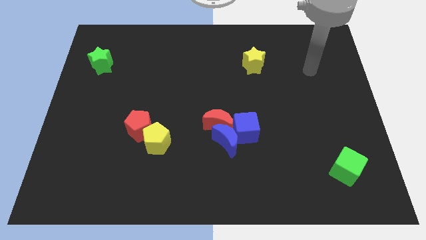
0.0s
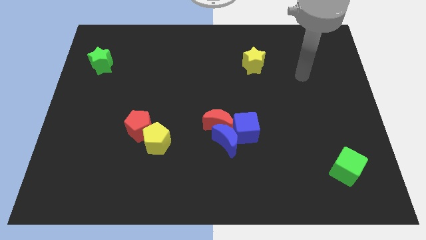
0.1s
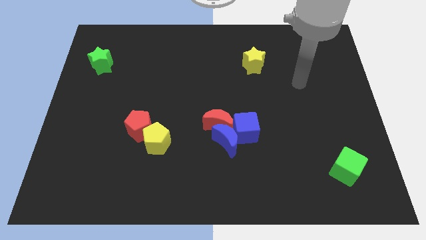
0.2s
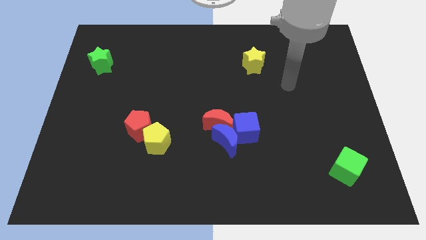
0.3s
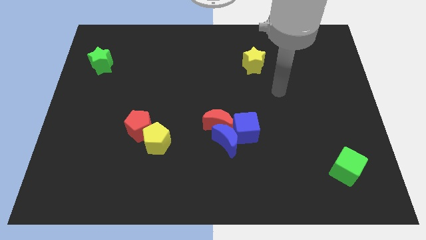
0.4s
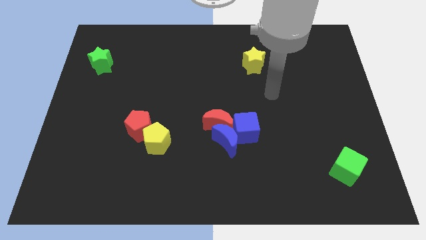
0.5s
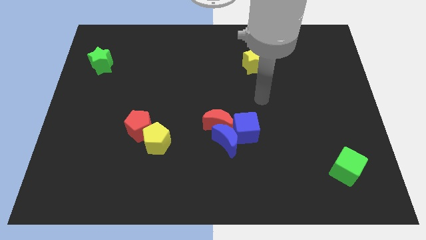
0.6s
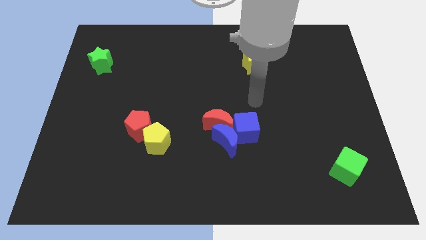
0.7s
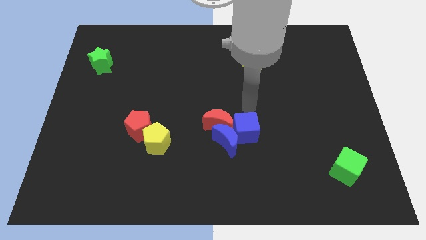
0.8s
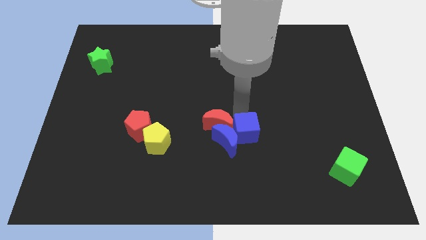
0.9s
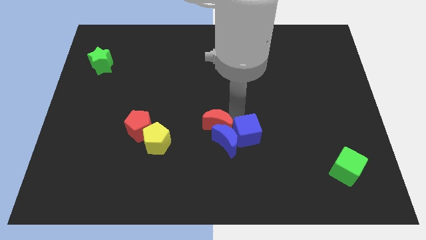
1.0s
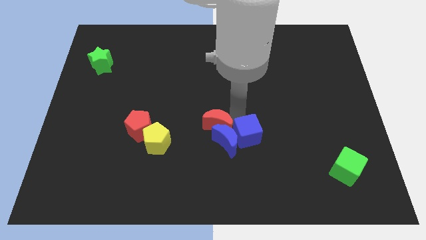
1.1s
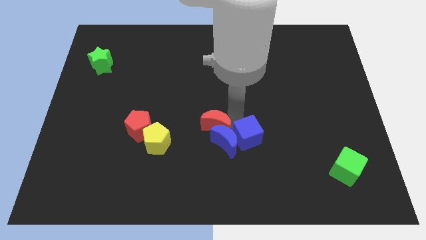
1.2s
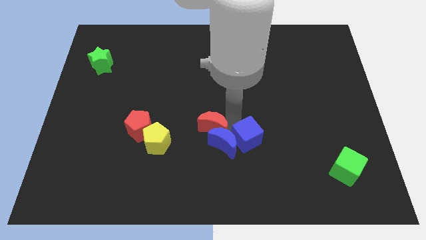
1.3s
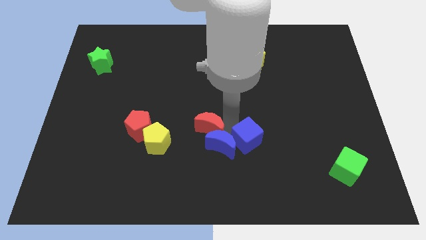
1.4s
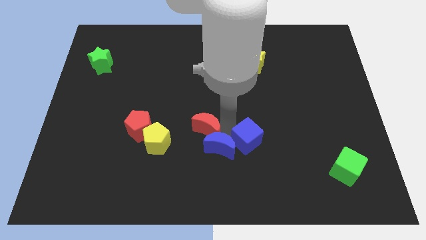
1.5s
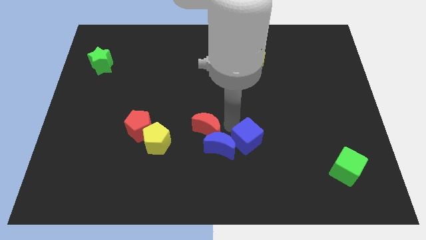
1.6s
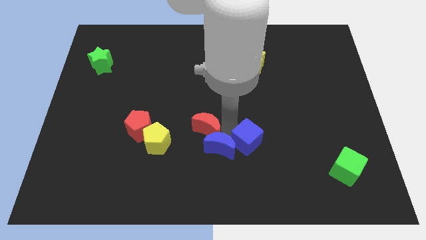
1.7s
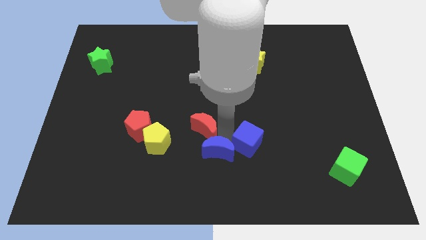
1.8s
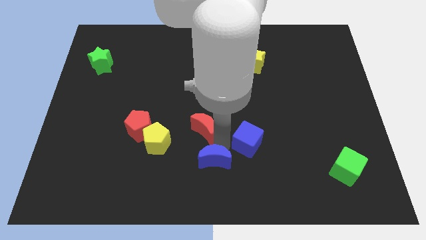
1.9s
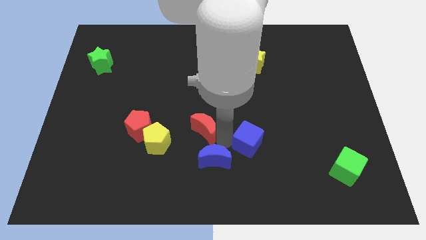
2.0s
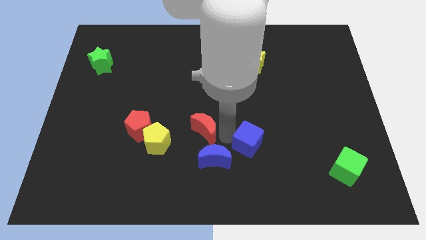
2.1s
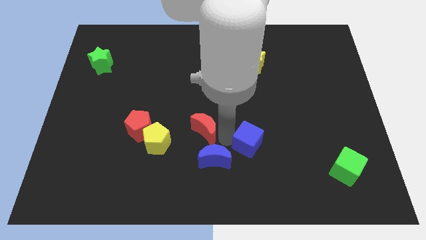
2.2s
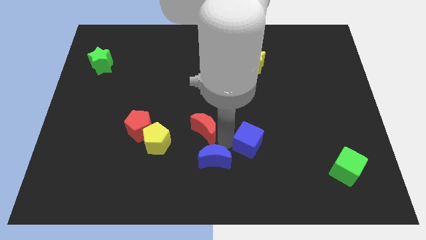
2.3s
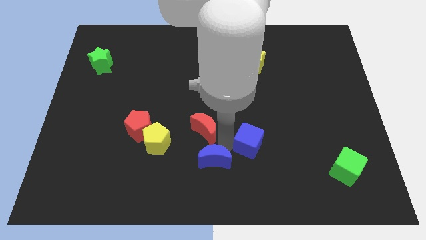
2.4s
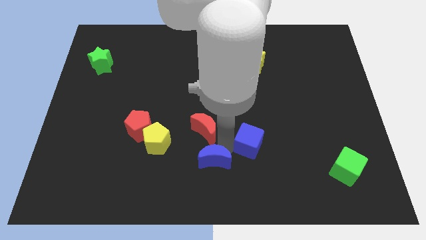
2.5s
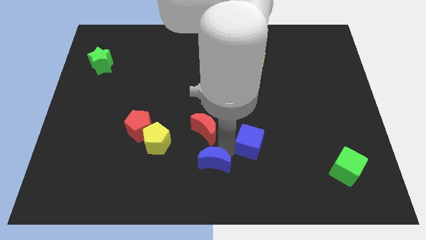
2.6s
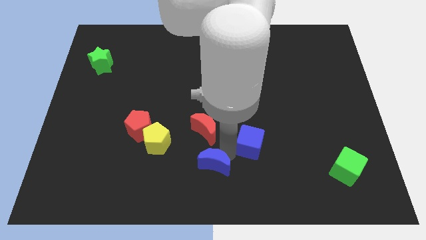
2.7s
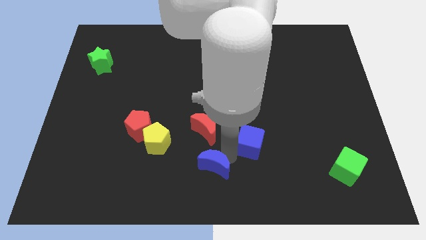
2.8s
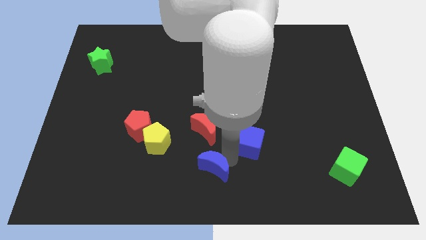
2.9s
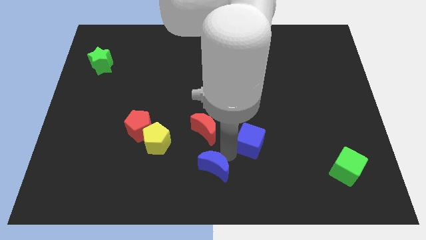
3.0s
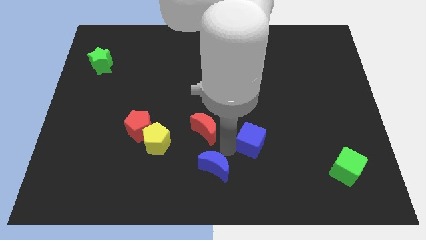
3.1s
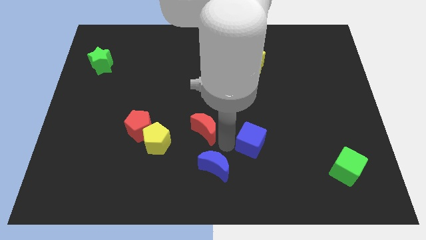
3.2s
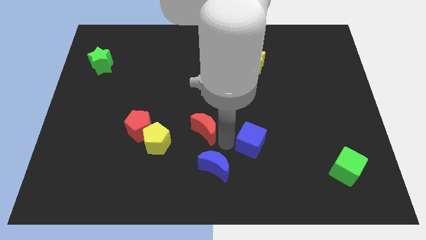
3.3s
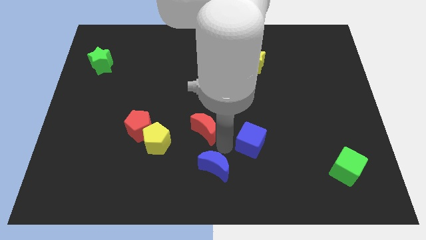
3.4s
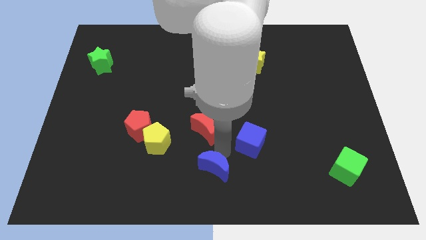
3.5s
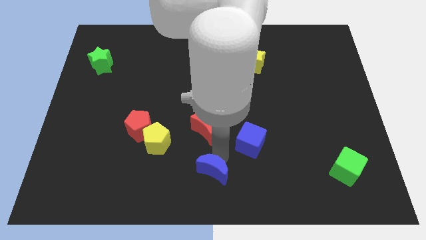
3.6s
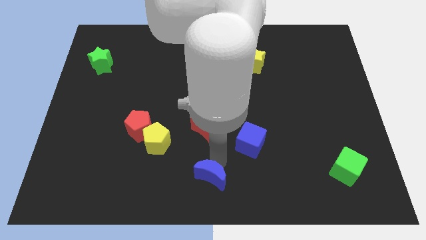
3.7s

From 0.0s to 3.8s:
move the blue moon away from the red moon and blue cube

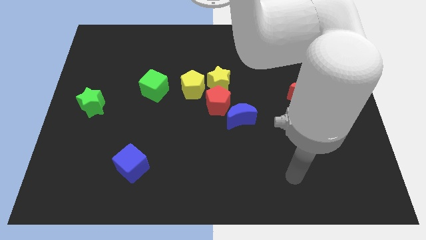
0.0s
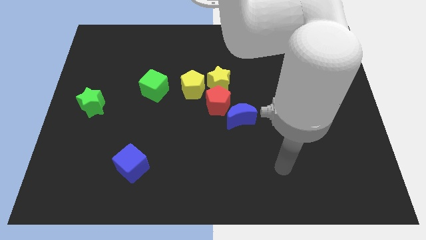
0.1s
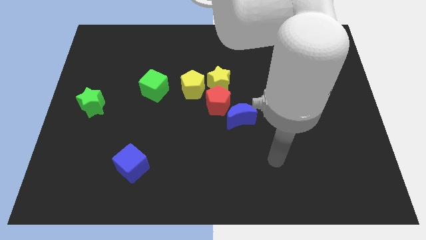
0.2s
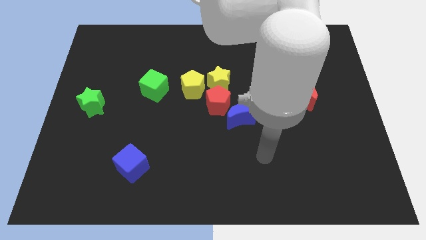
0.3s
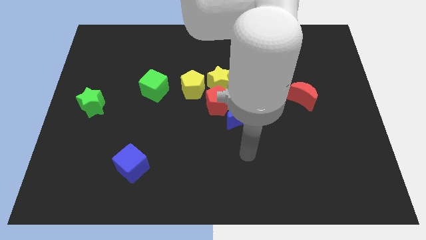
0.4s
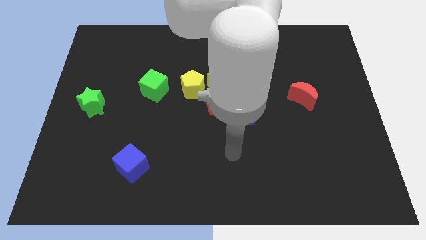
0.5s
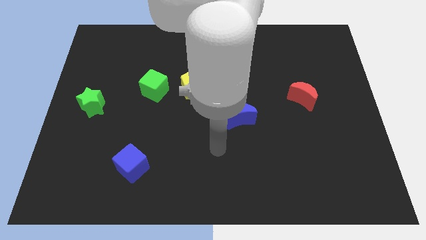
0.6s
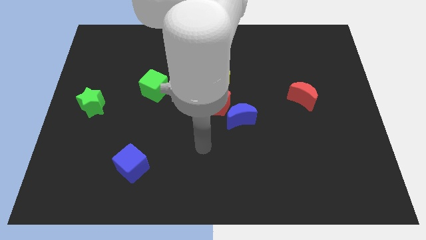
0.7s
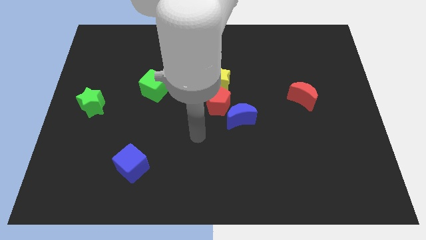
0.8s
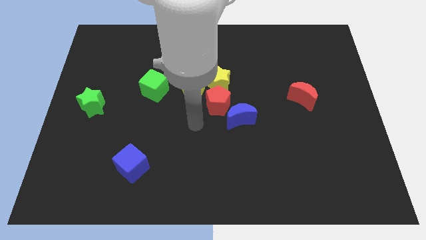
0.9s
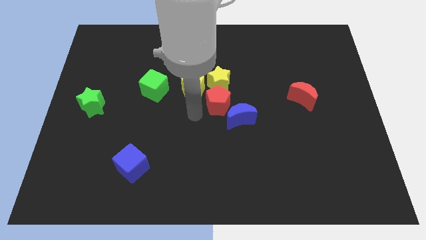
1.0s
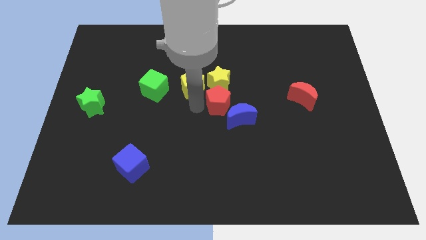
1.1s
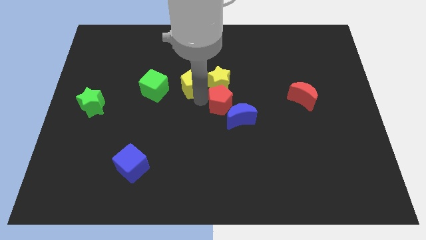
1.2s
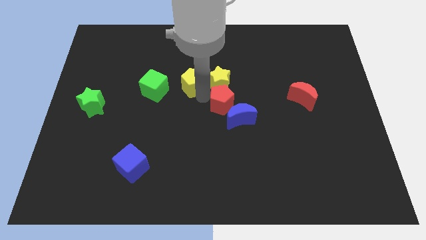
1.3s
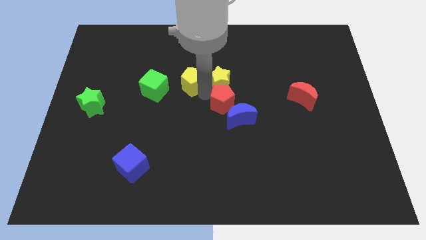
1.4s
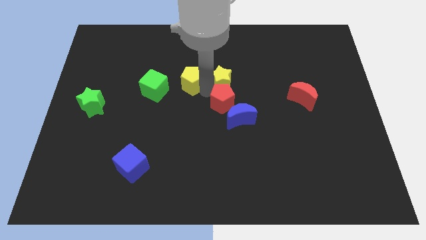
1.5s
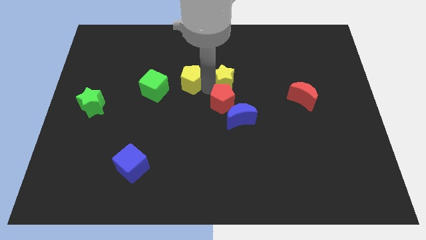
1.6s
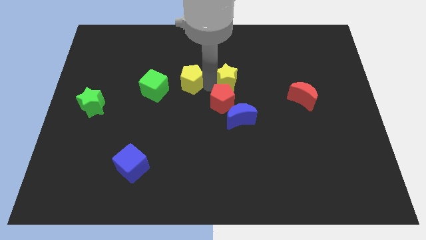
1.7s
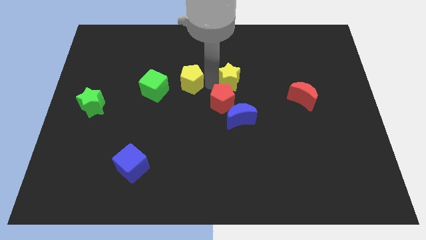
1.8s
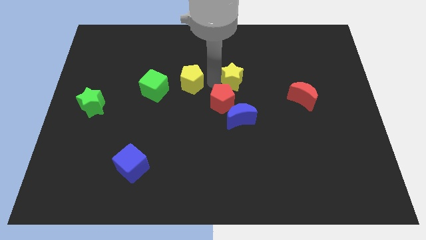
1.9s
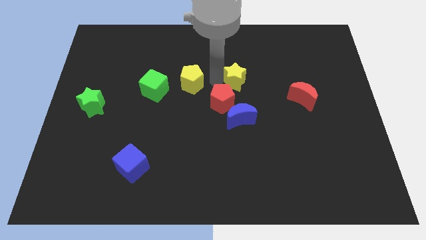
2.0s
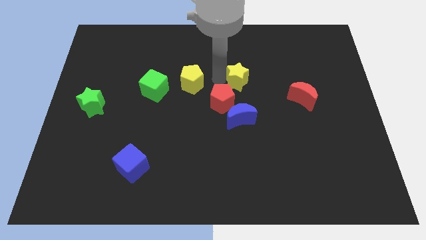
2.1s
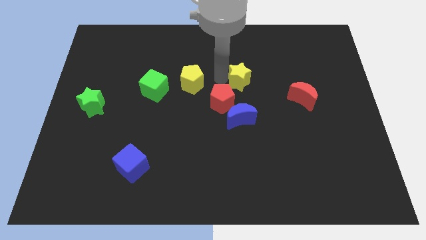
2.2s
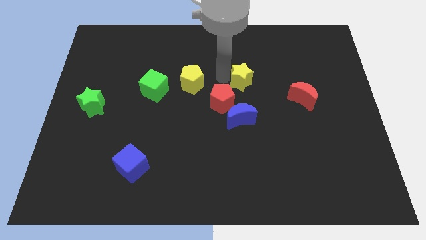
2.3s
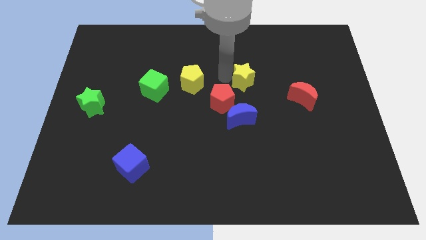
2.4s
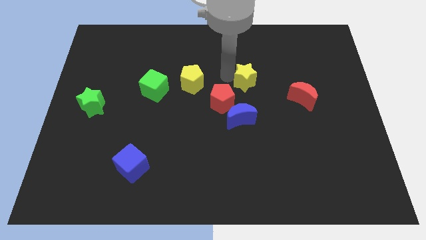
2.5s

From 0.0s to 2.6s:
separate the yellow star from the red pentagon and yellow pentagon

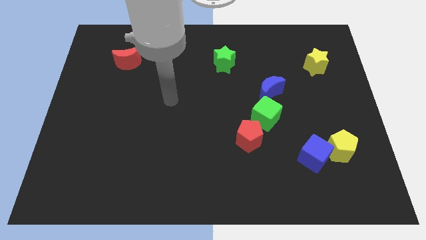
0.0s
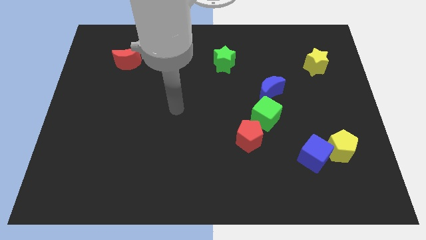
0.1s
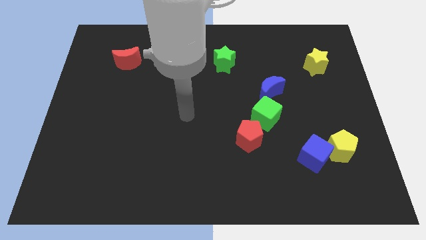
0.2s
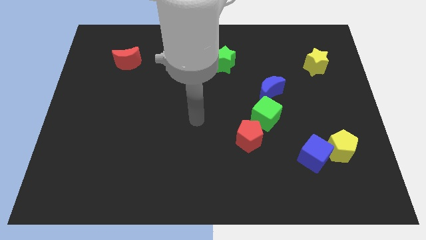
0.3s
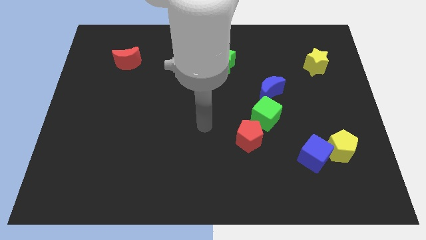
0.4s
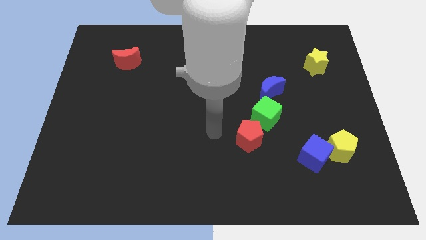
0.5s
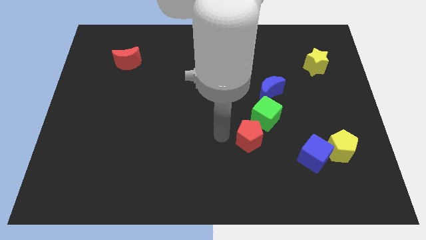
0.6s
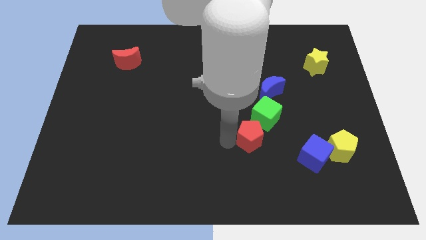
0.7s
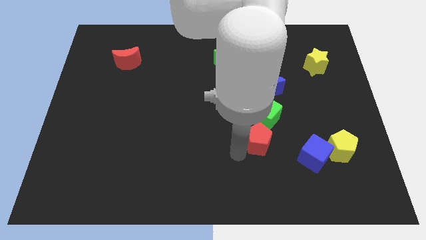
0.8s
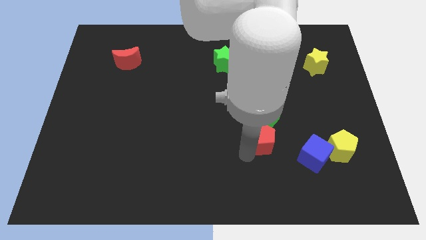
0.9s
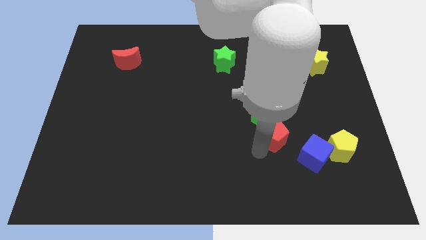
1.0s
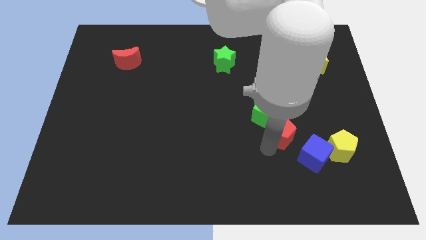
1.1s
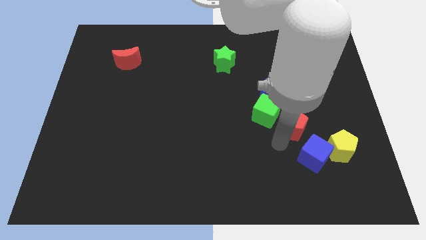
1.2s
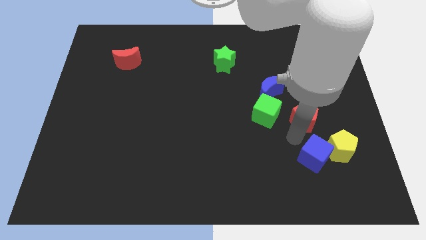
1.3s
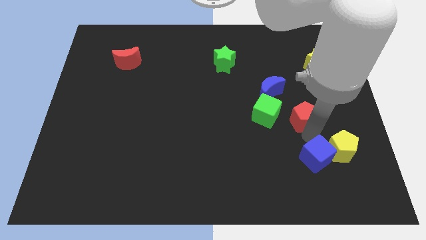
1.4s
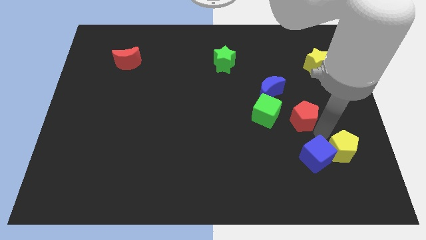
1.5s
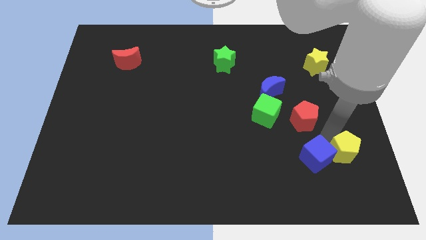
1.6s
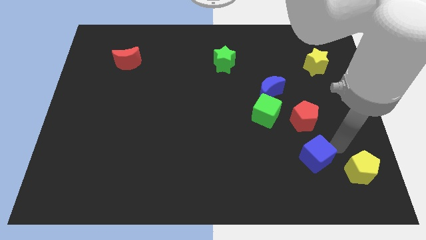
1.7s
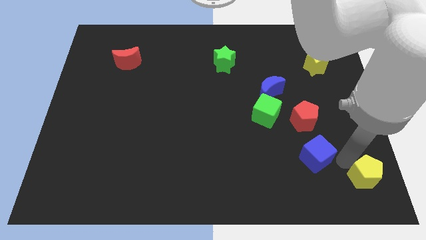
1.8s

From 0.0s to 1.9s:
pull the blue cube apart from the yellow pentagon

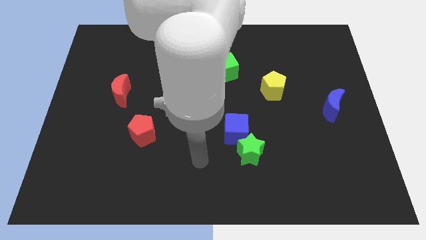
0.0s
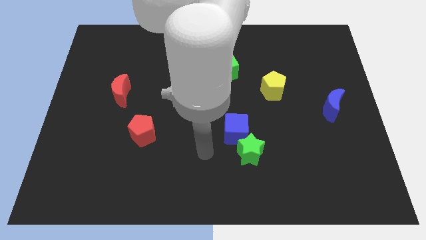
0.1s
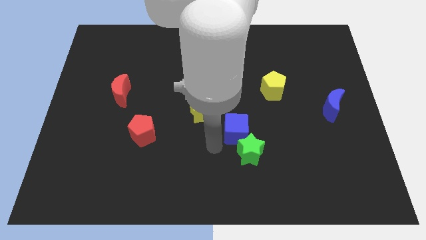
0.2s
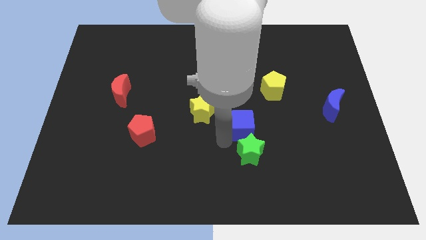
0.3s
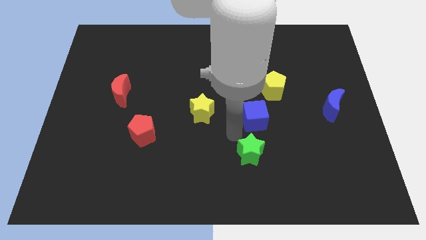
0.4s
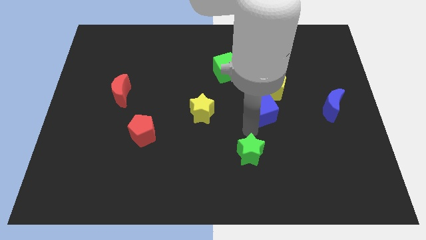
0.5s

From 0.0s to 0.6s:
pull the green star apart from the blue cube

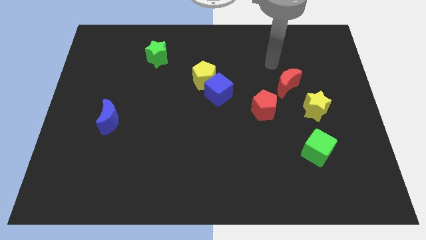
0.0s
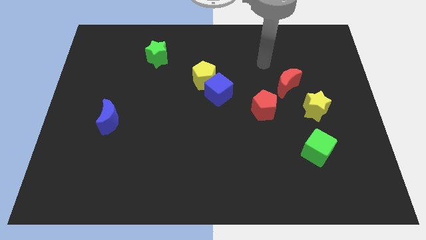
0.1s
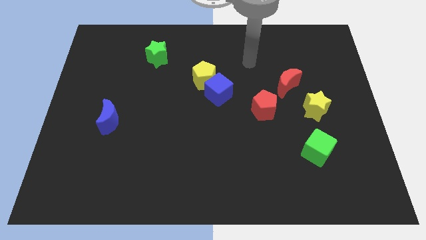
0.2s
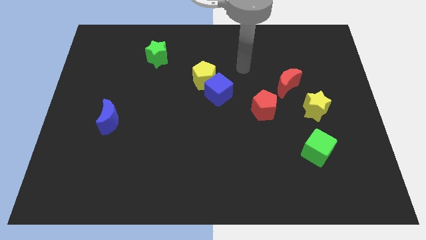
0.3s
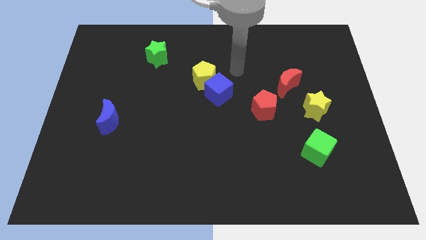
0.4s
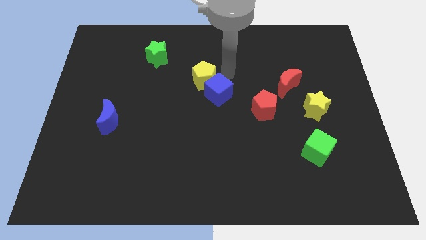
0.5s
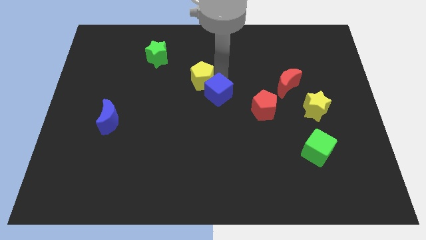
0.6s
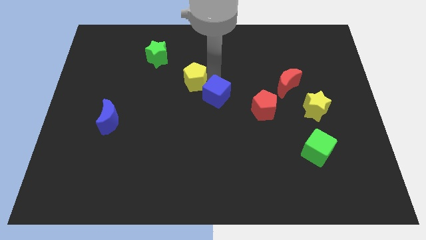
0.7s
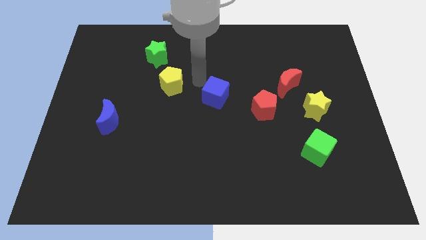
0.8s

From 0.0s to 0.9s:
move the blue cube away from the yellow pentagon
